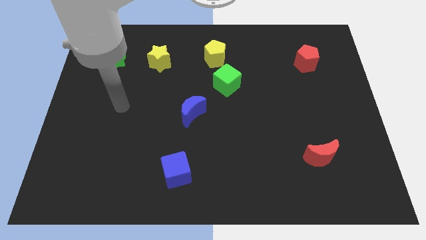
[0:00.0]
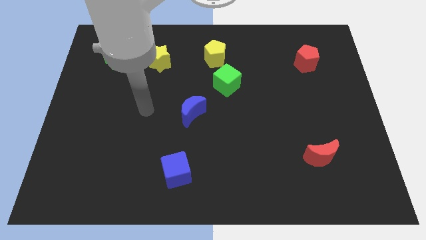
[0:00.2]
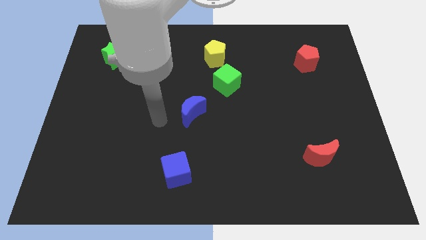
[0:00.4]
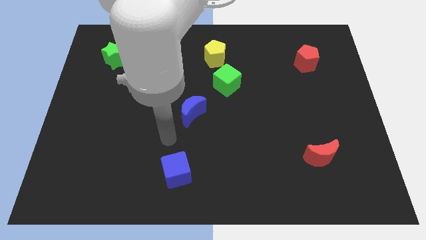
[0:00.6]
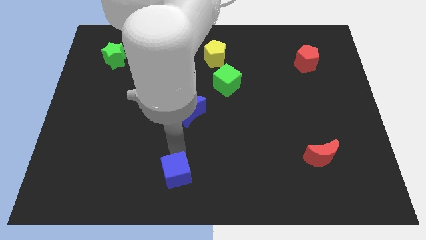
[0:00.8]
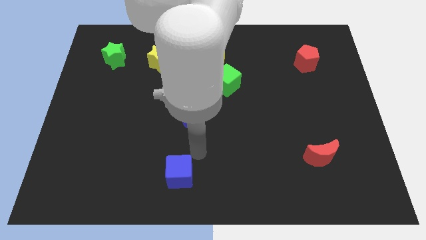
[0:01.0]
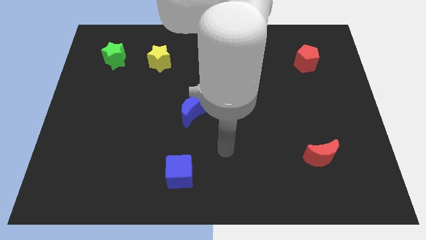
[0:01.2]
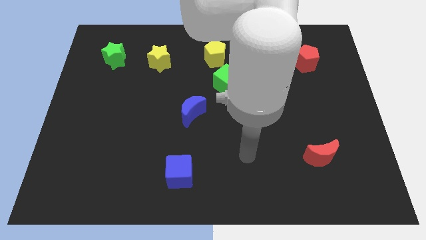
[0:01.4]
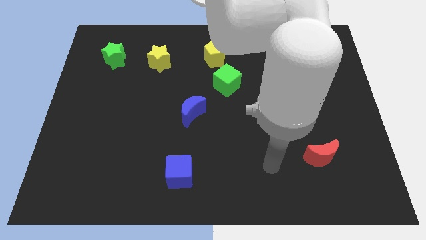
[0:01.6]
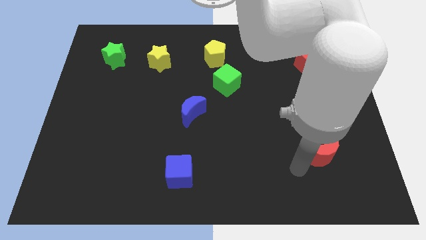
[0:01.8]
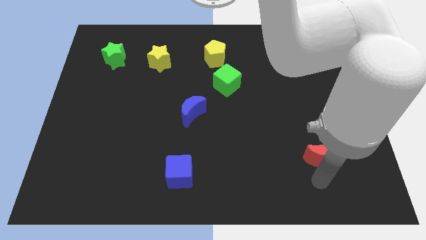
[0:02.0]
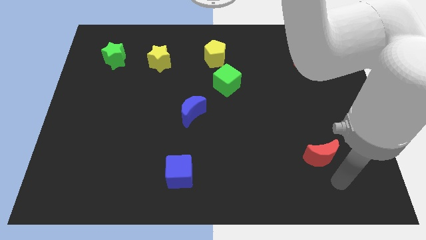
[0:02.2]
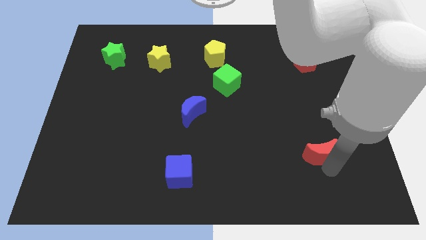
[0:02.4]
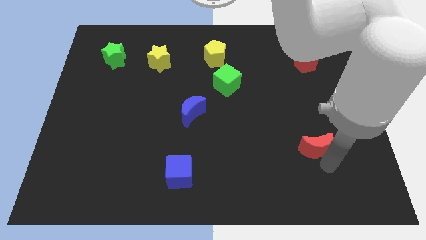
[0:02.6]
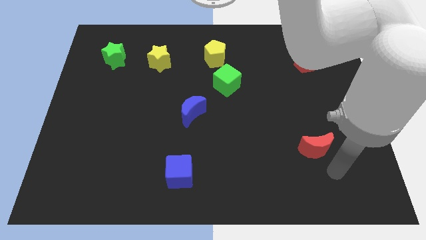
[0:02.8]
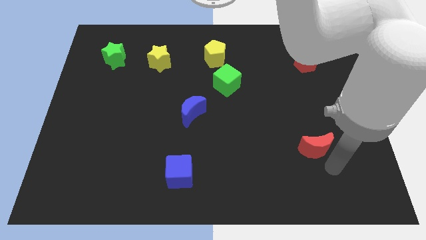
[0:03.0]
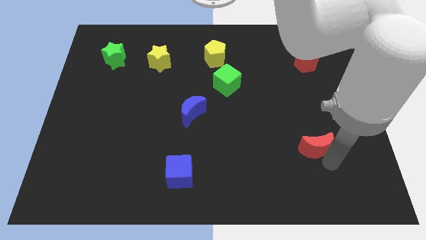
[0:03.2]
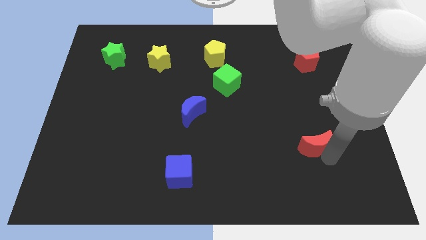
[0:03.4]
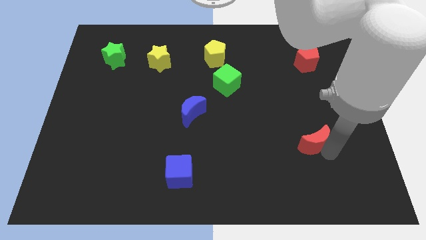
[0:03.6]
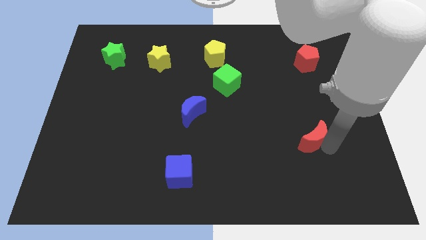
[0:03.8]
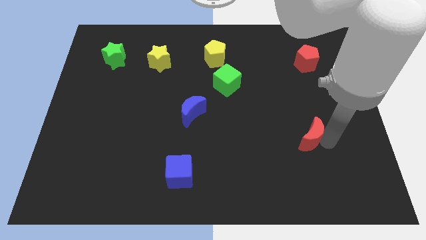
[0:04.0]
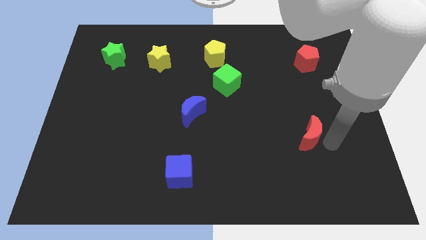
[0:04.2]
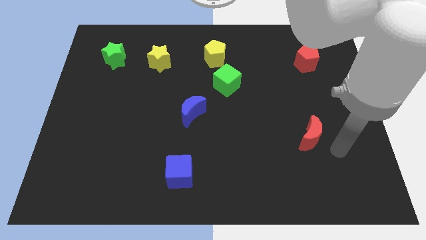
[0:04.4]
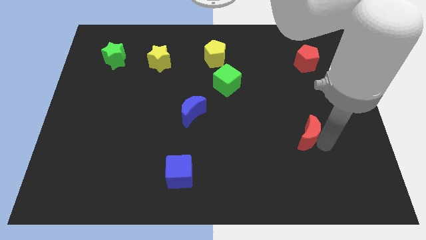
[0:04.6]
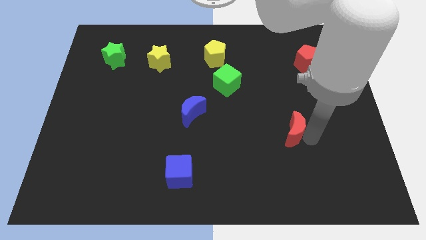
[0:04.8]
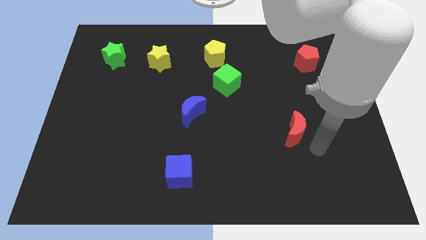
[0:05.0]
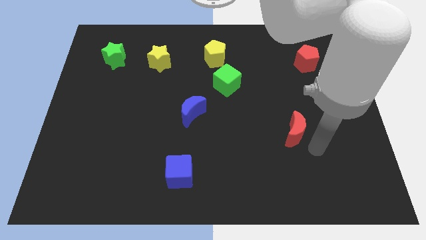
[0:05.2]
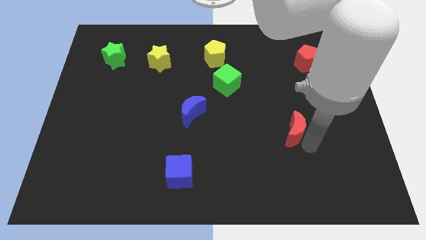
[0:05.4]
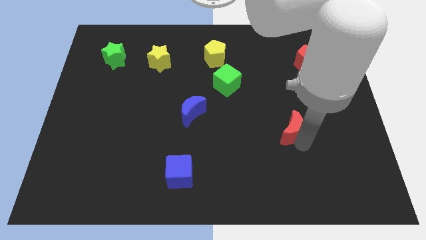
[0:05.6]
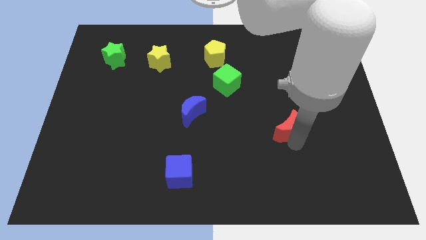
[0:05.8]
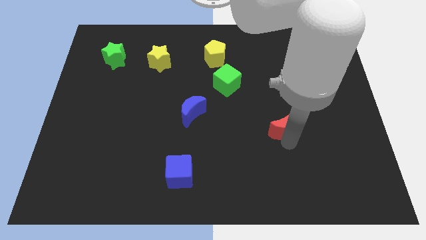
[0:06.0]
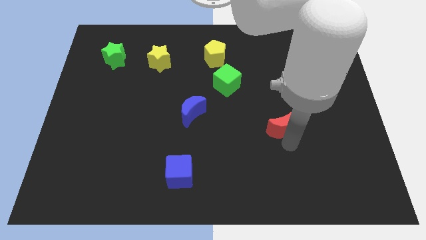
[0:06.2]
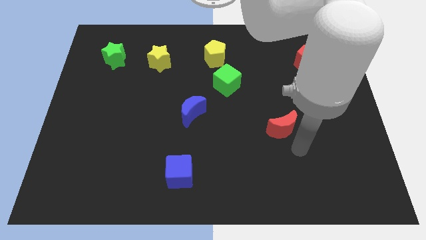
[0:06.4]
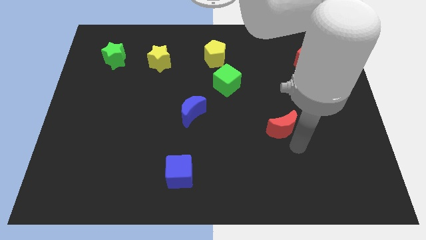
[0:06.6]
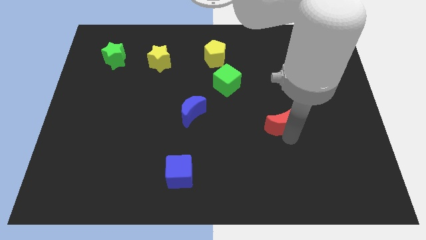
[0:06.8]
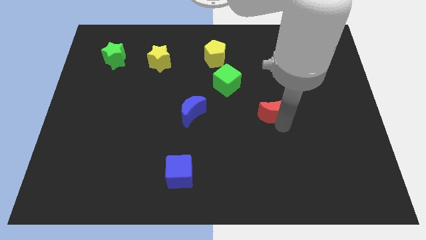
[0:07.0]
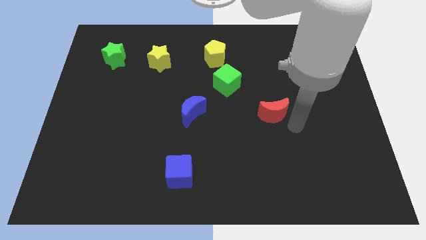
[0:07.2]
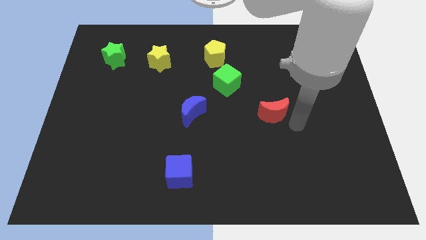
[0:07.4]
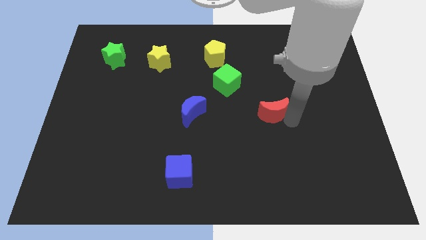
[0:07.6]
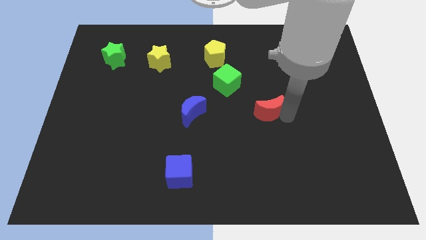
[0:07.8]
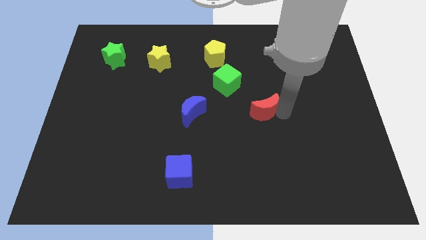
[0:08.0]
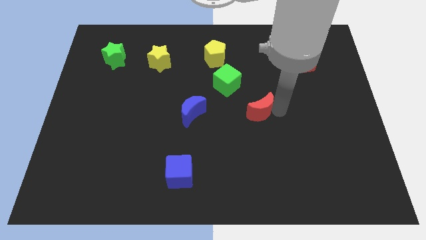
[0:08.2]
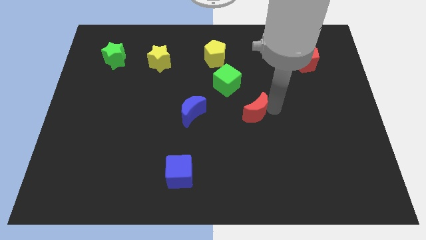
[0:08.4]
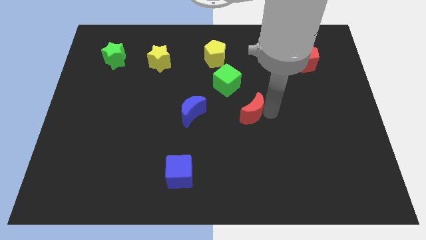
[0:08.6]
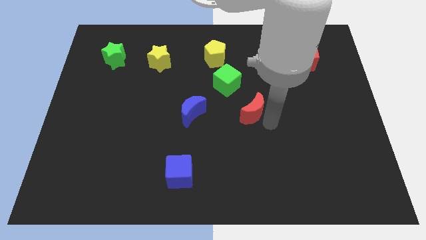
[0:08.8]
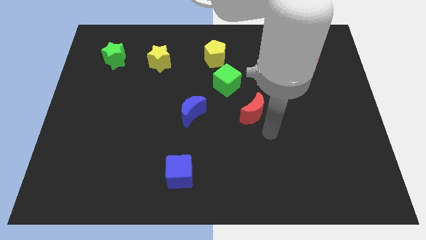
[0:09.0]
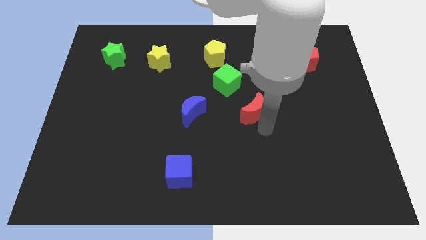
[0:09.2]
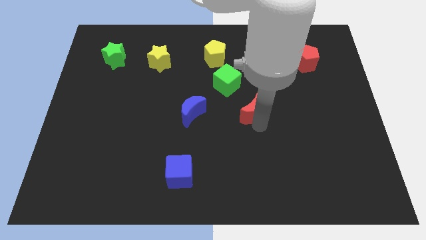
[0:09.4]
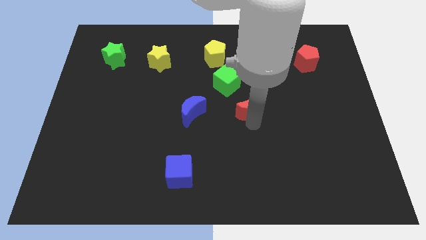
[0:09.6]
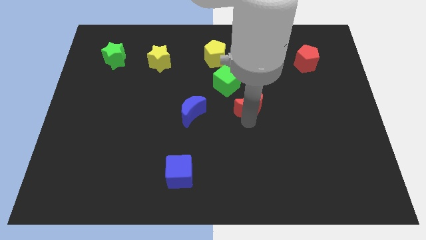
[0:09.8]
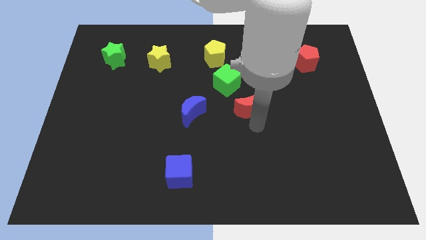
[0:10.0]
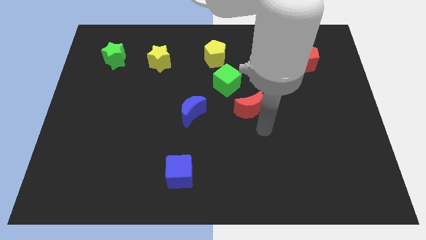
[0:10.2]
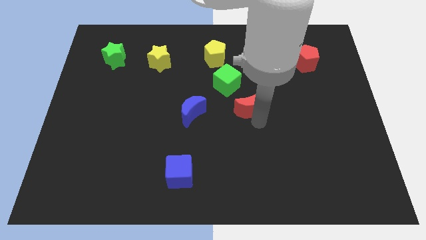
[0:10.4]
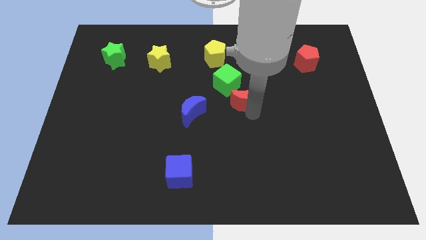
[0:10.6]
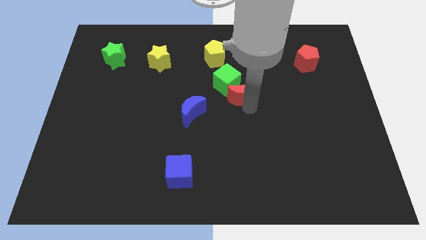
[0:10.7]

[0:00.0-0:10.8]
push the red moon to the green cube

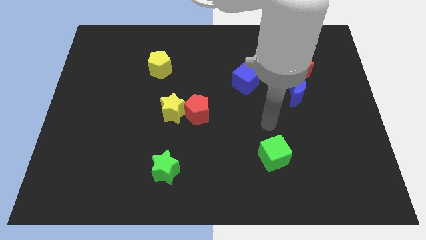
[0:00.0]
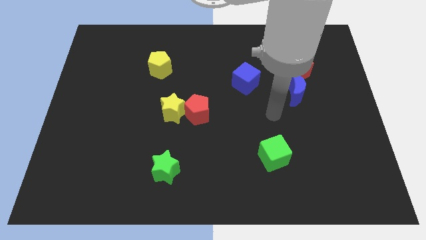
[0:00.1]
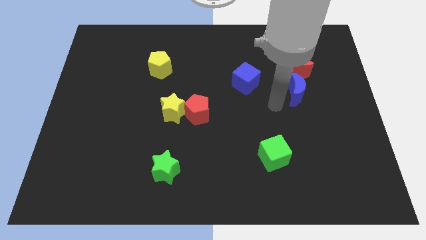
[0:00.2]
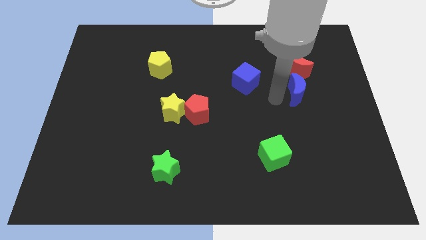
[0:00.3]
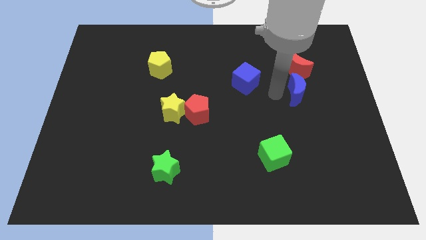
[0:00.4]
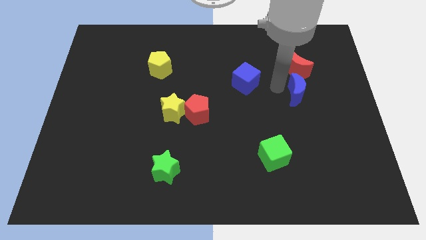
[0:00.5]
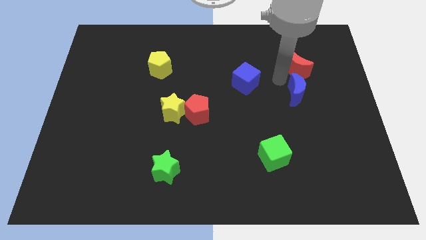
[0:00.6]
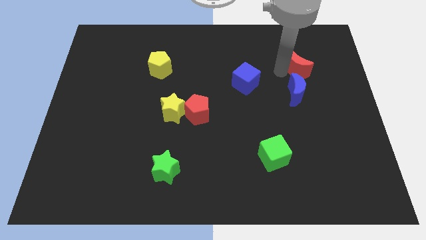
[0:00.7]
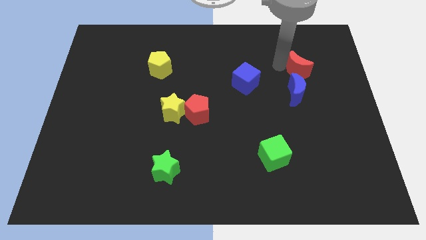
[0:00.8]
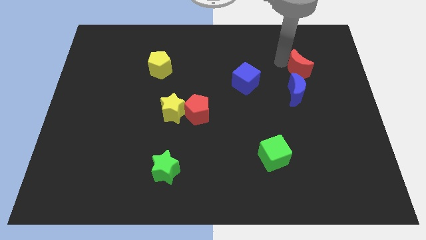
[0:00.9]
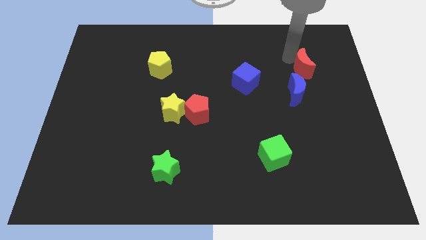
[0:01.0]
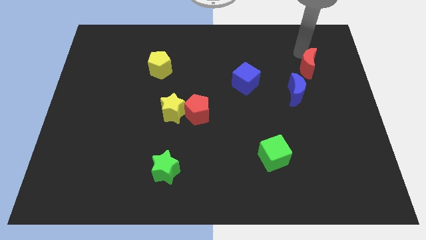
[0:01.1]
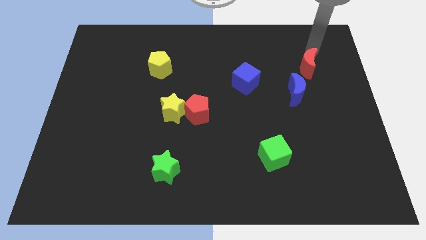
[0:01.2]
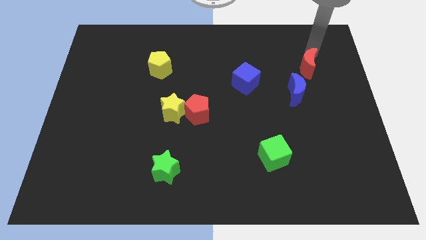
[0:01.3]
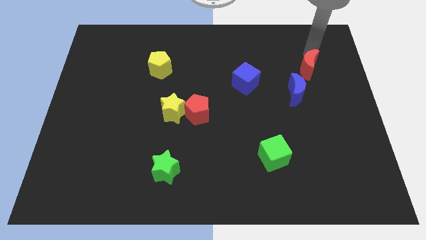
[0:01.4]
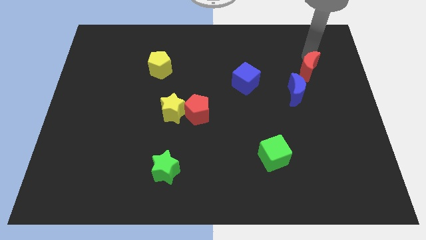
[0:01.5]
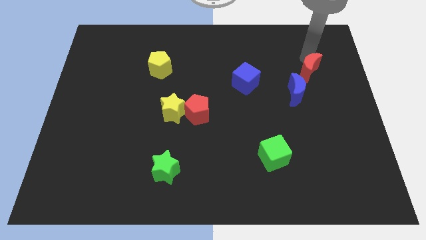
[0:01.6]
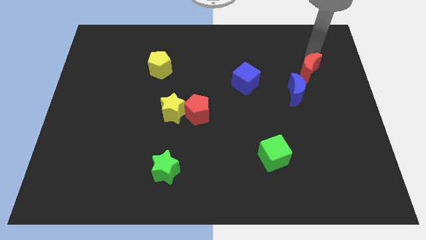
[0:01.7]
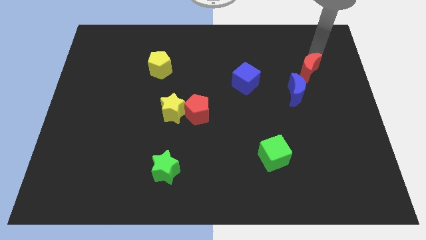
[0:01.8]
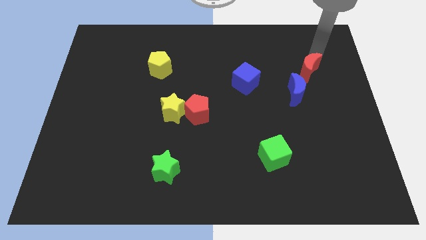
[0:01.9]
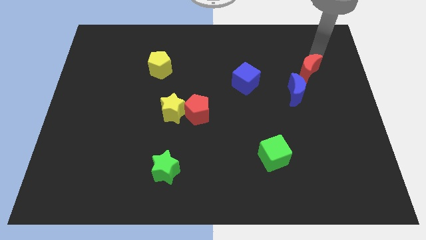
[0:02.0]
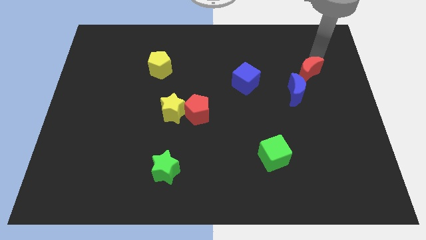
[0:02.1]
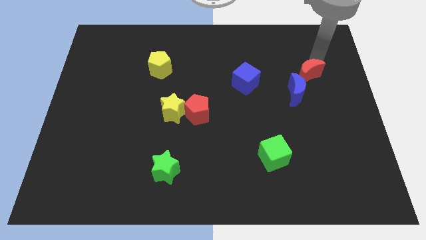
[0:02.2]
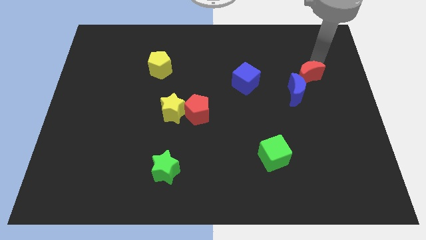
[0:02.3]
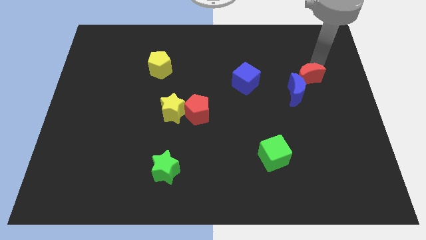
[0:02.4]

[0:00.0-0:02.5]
push the red moon next to the blue moon
